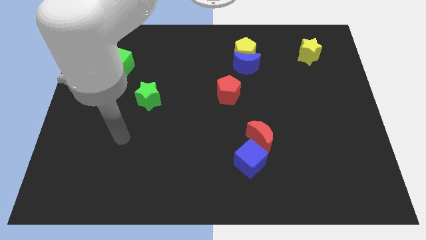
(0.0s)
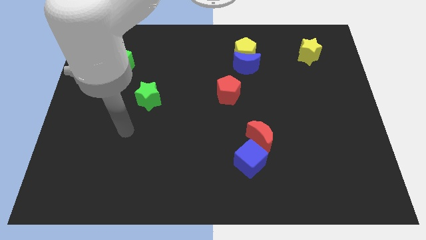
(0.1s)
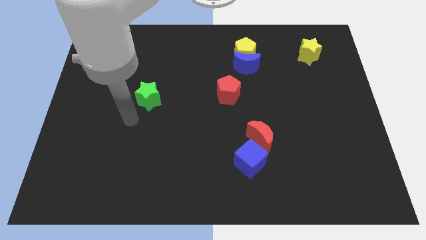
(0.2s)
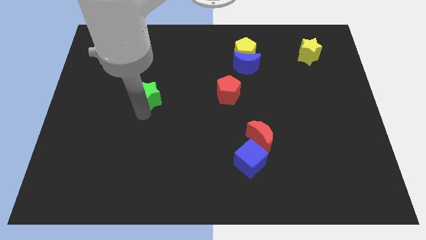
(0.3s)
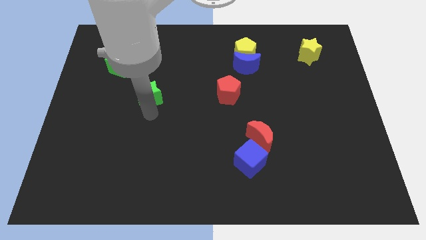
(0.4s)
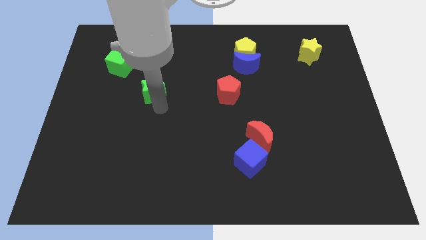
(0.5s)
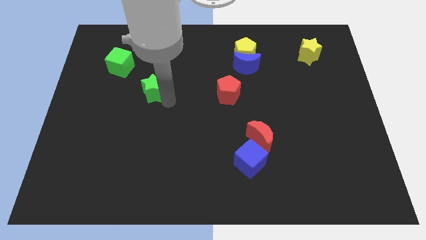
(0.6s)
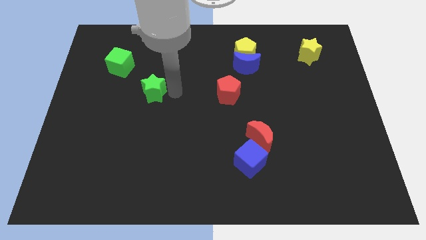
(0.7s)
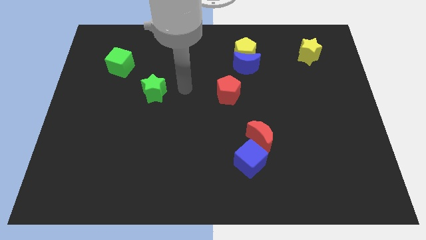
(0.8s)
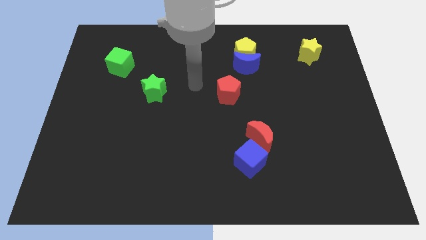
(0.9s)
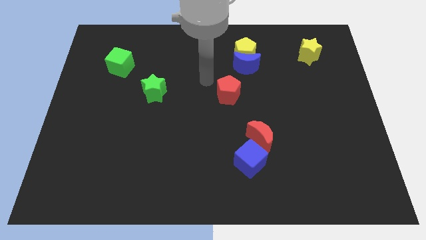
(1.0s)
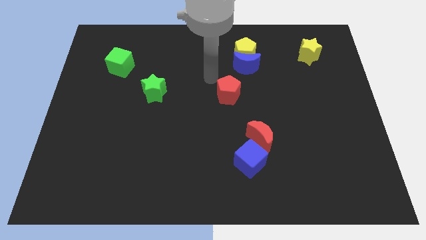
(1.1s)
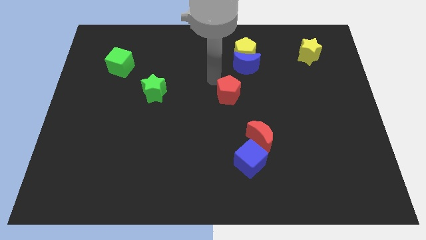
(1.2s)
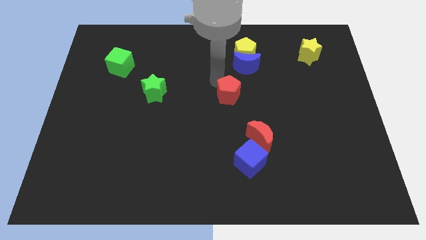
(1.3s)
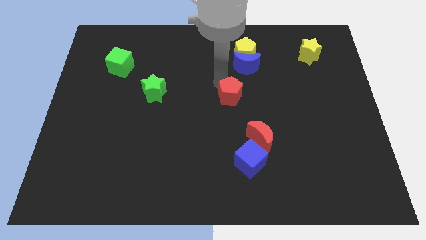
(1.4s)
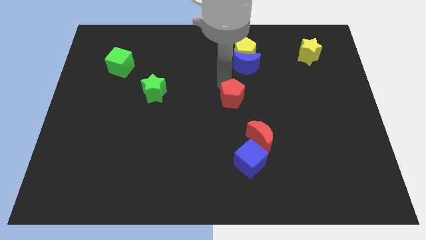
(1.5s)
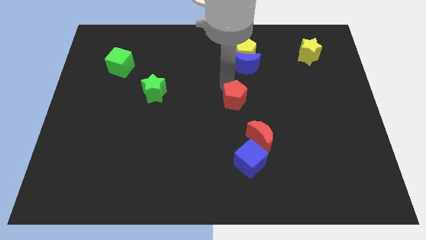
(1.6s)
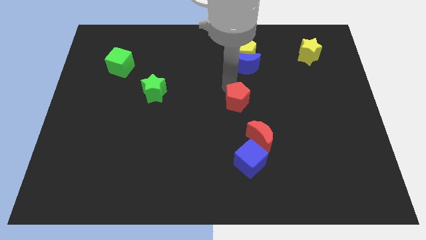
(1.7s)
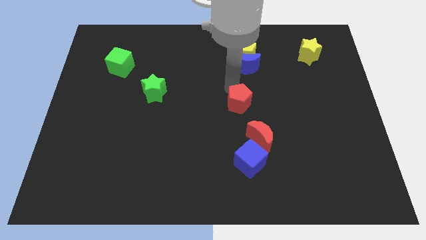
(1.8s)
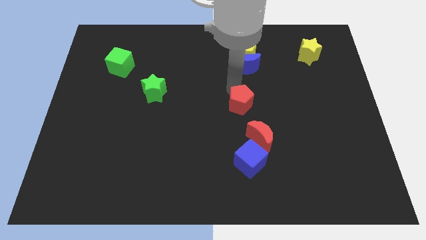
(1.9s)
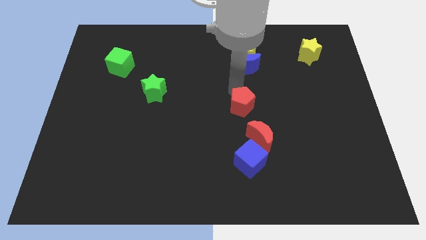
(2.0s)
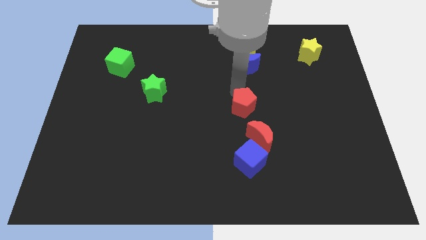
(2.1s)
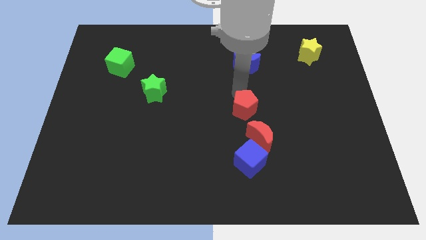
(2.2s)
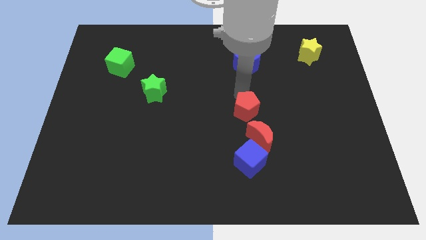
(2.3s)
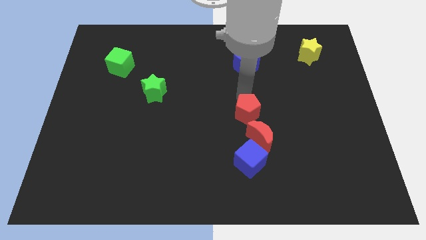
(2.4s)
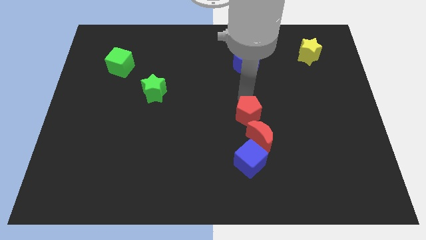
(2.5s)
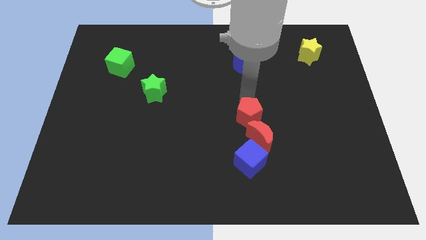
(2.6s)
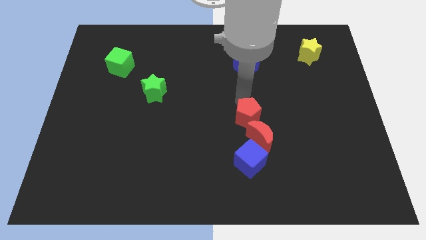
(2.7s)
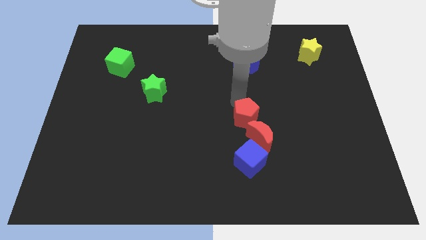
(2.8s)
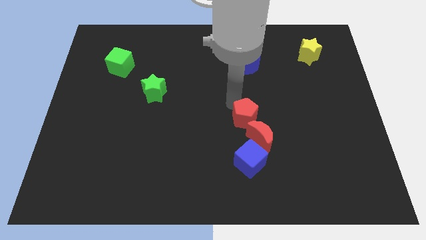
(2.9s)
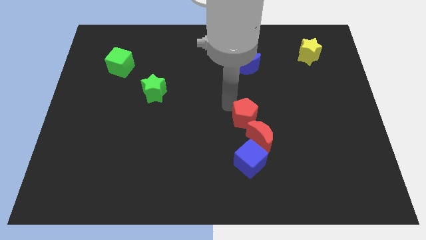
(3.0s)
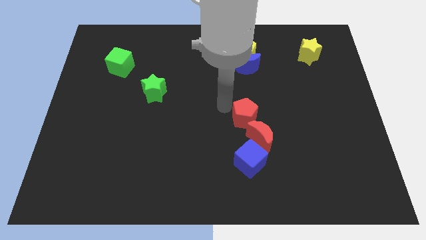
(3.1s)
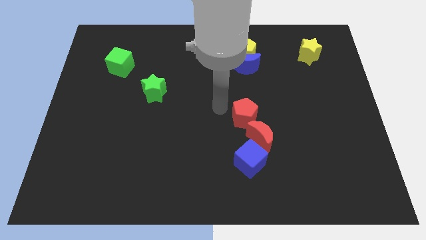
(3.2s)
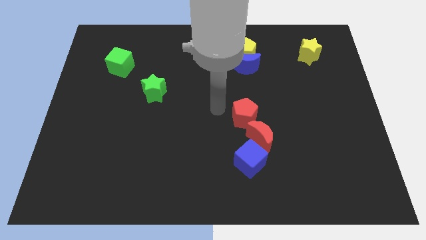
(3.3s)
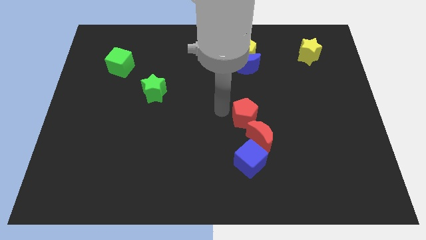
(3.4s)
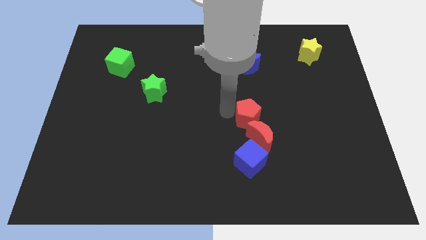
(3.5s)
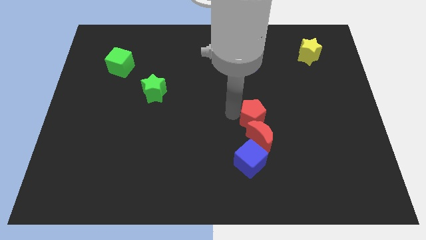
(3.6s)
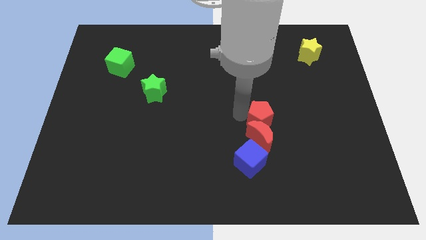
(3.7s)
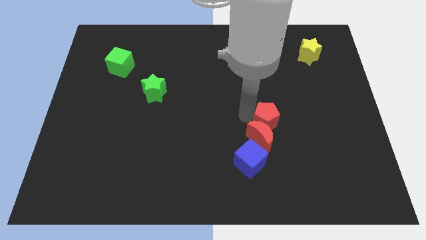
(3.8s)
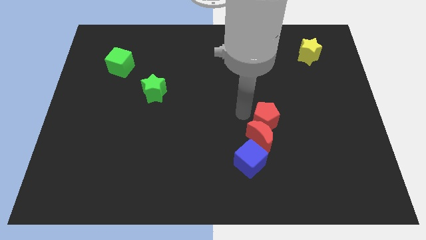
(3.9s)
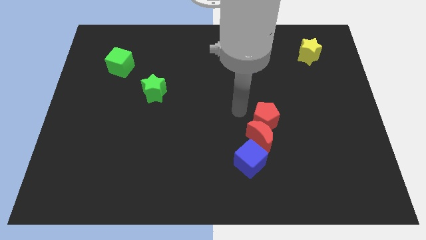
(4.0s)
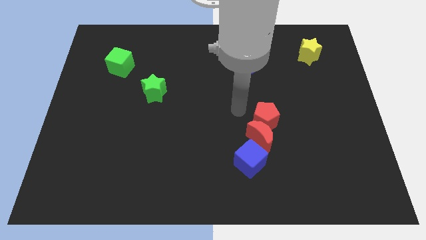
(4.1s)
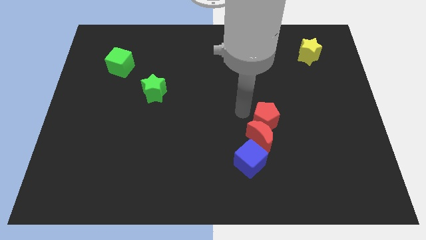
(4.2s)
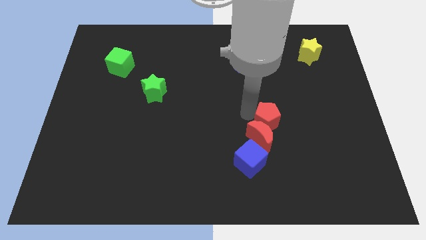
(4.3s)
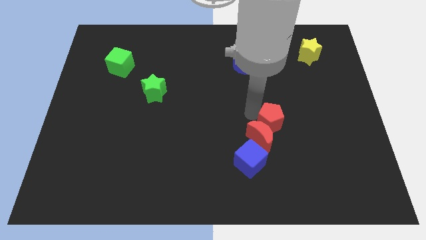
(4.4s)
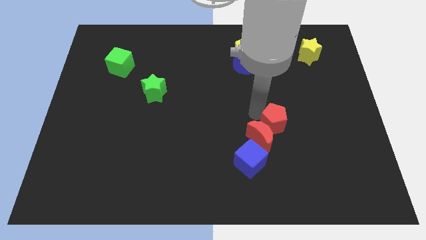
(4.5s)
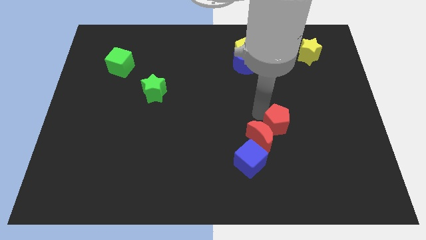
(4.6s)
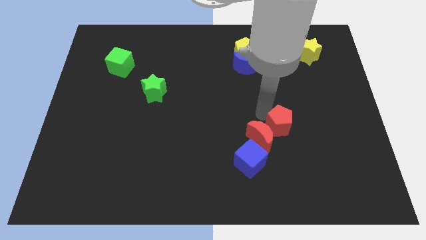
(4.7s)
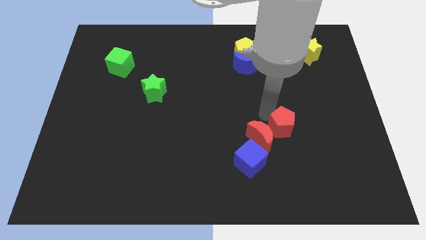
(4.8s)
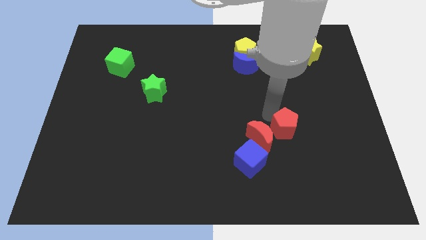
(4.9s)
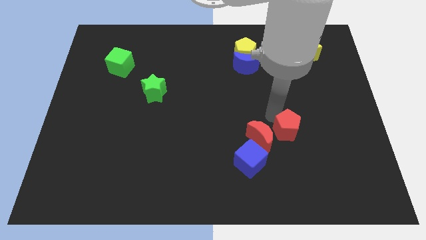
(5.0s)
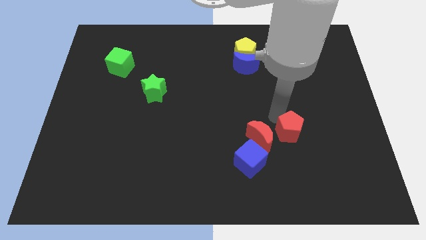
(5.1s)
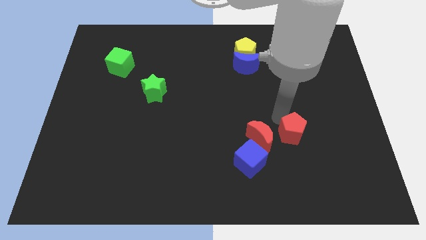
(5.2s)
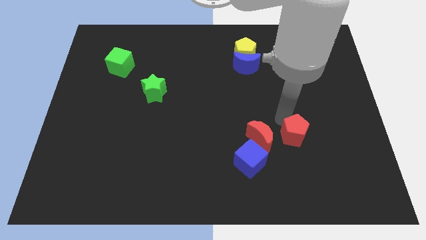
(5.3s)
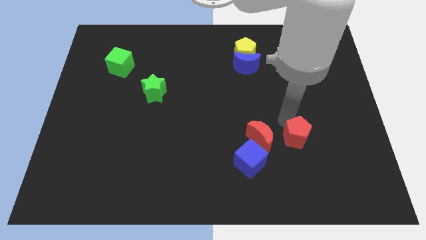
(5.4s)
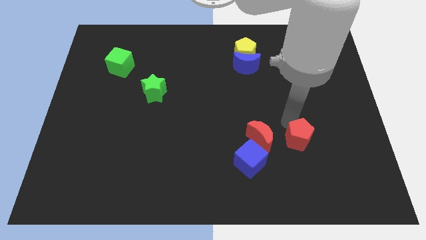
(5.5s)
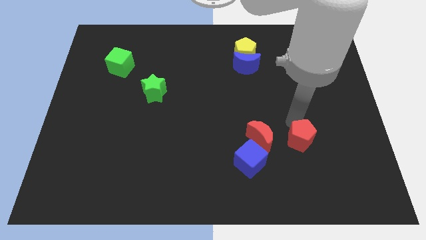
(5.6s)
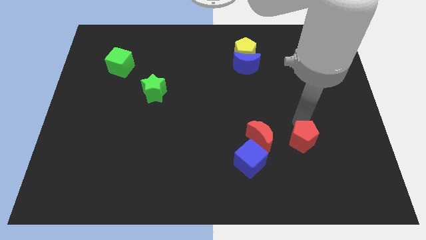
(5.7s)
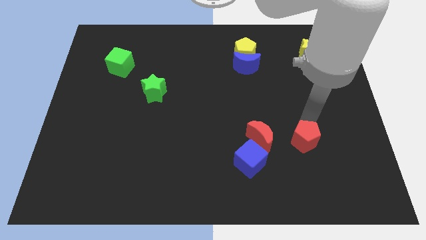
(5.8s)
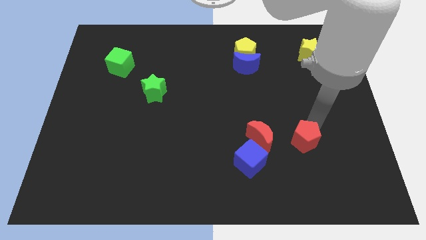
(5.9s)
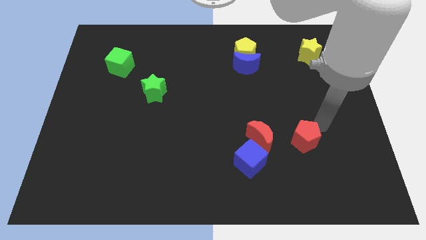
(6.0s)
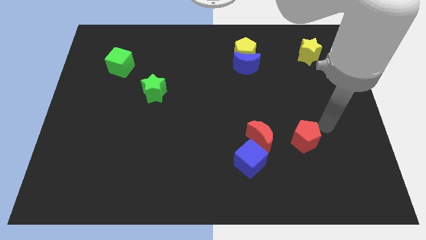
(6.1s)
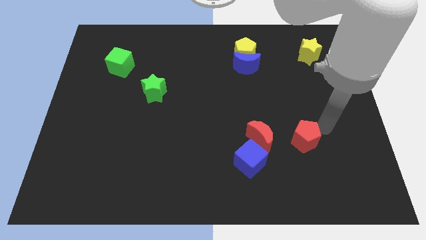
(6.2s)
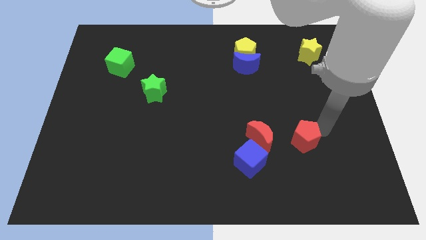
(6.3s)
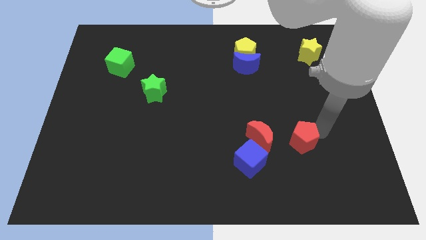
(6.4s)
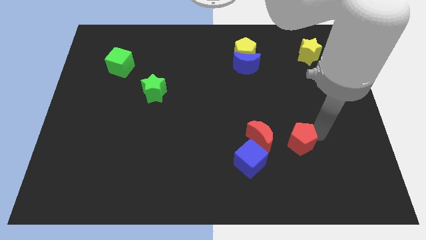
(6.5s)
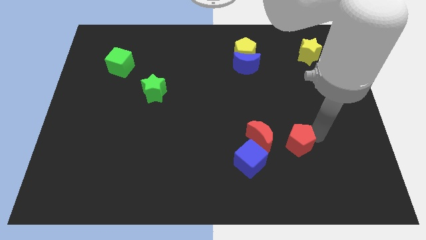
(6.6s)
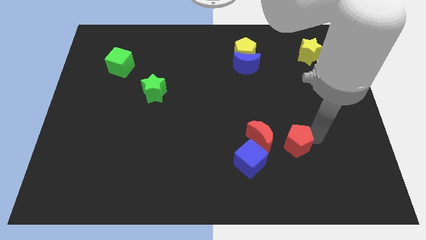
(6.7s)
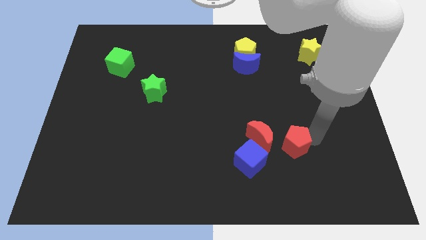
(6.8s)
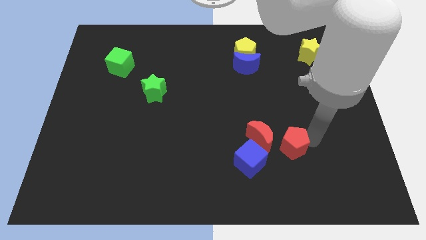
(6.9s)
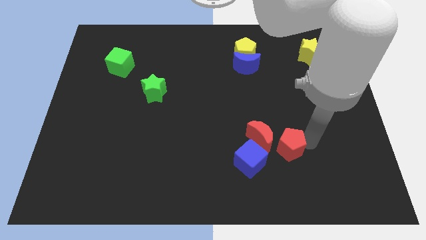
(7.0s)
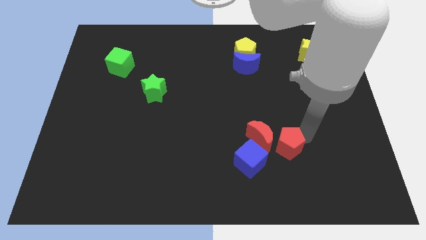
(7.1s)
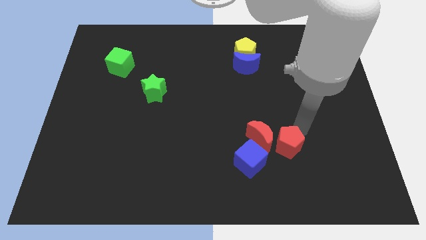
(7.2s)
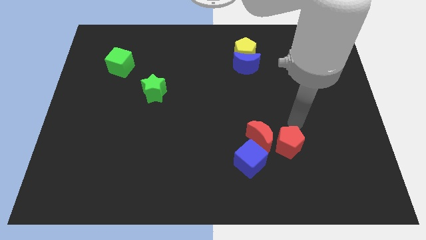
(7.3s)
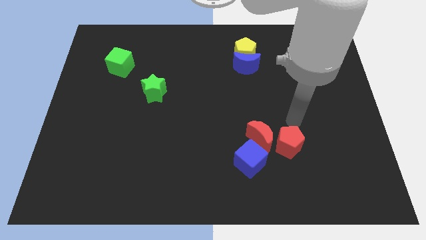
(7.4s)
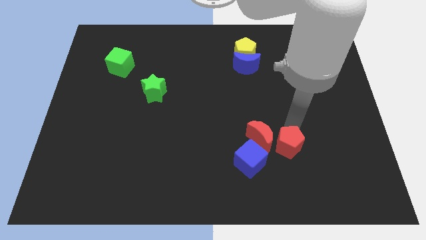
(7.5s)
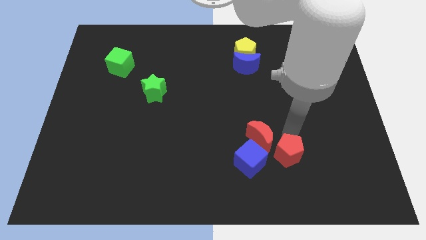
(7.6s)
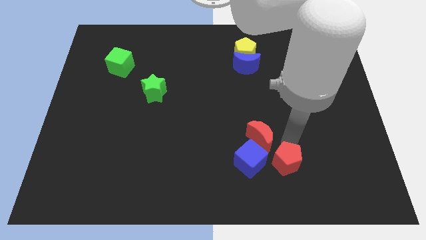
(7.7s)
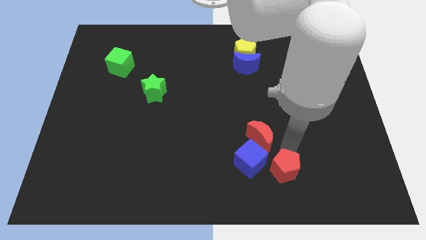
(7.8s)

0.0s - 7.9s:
put the red pentagon to the bottom right side of the blue cube

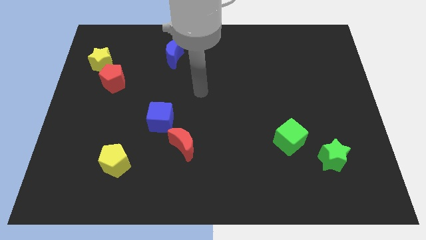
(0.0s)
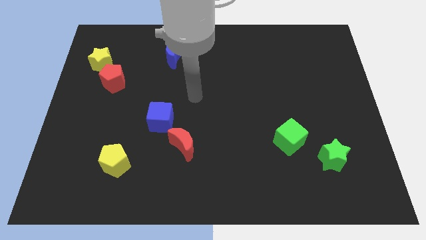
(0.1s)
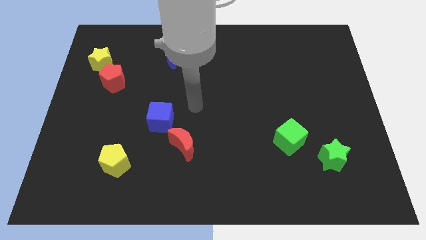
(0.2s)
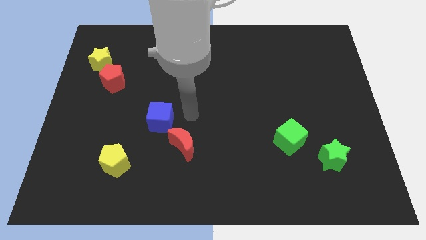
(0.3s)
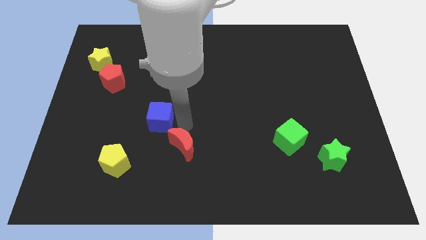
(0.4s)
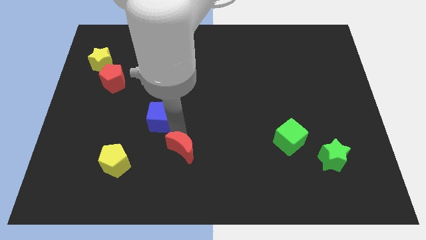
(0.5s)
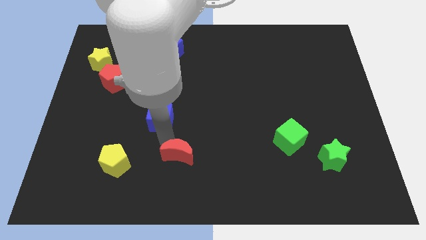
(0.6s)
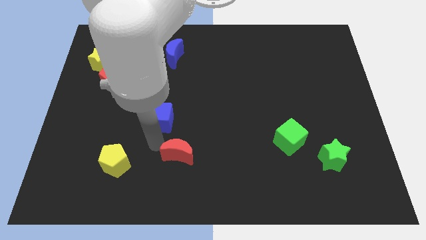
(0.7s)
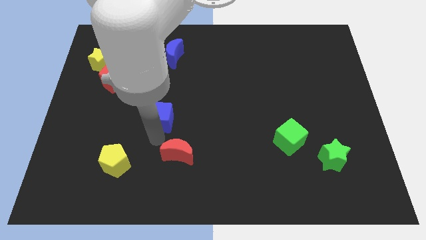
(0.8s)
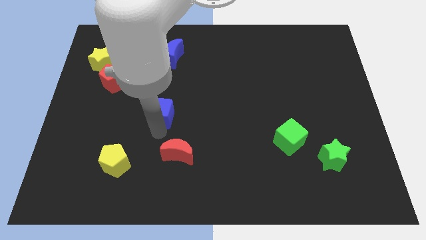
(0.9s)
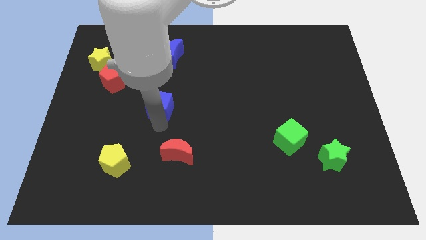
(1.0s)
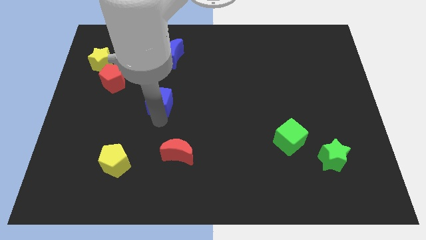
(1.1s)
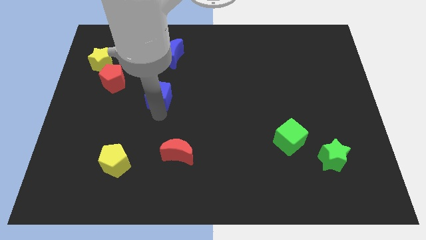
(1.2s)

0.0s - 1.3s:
push the blue cube to the bottom side of the blue moon
